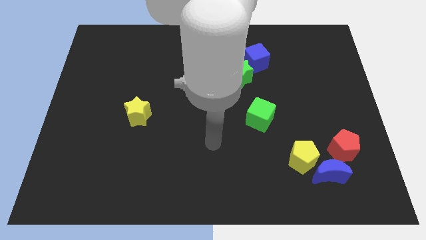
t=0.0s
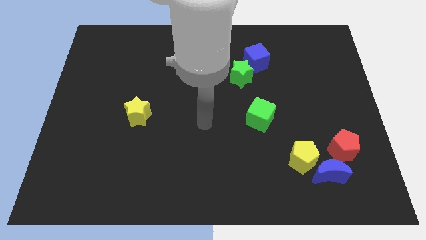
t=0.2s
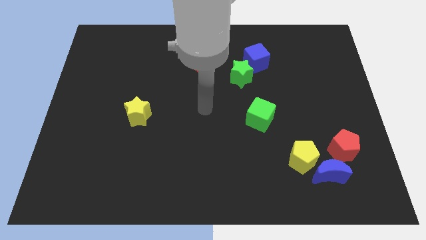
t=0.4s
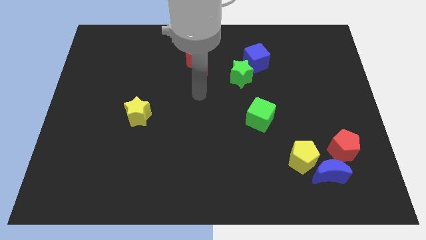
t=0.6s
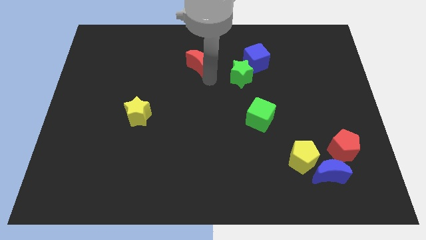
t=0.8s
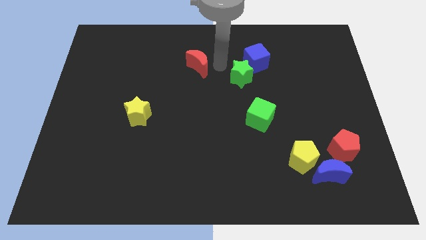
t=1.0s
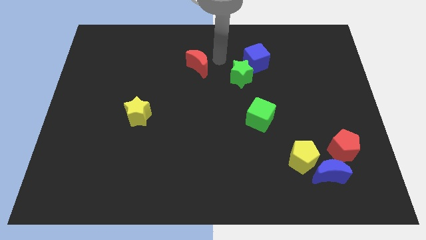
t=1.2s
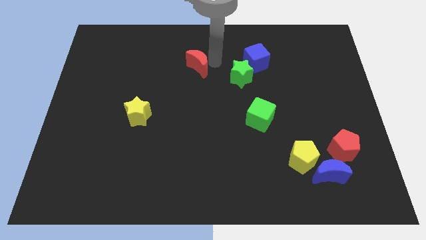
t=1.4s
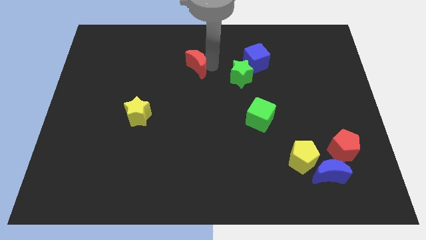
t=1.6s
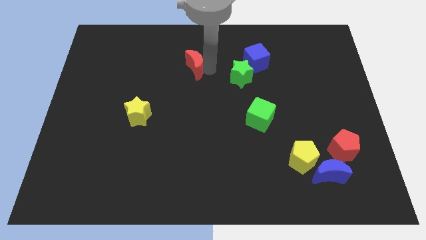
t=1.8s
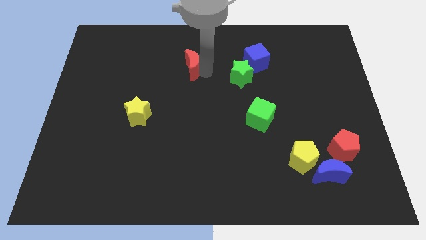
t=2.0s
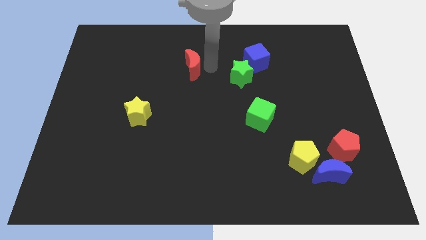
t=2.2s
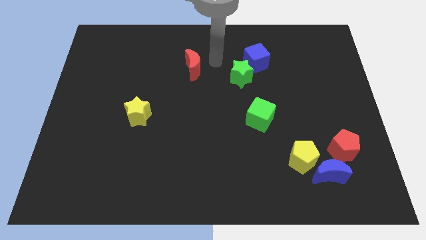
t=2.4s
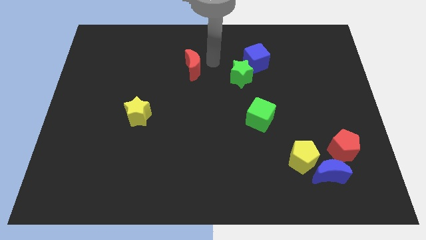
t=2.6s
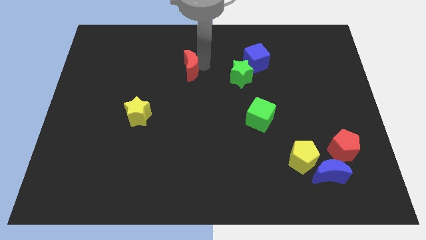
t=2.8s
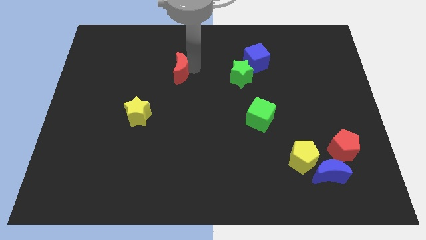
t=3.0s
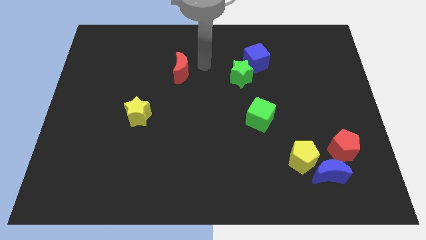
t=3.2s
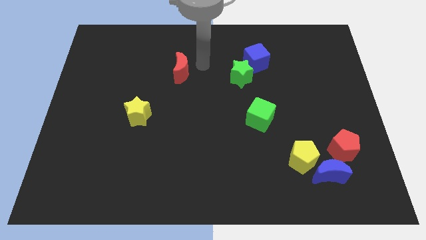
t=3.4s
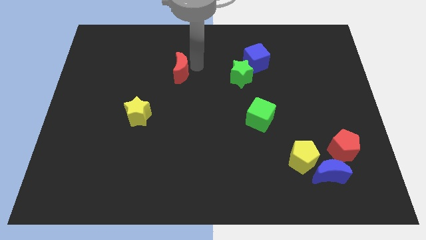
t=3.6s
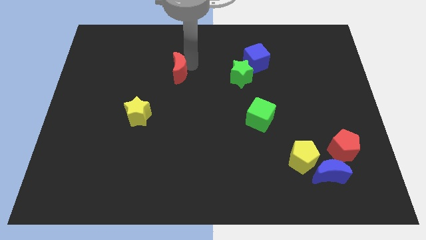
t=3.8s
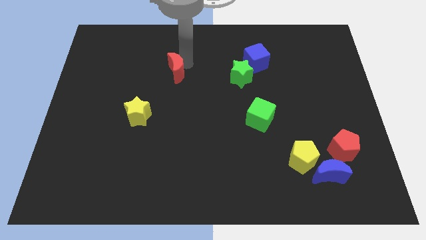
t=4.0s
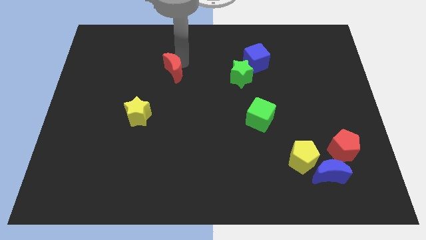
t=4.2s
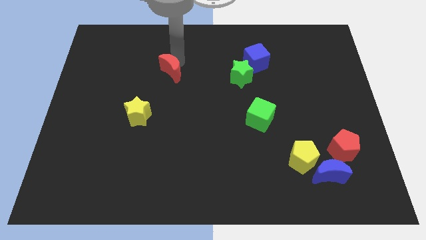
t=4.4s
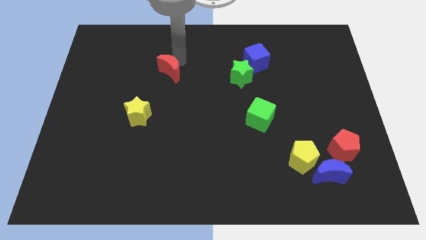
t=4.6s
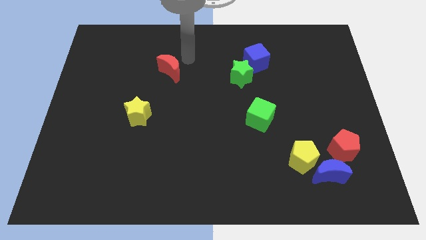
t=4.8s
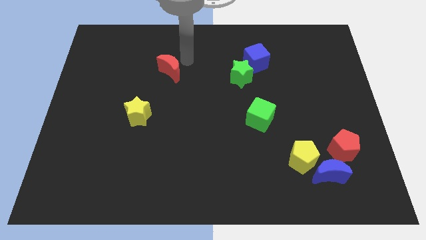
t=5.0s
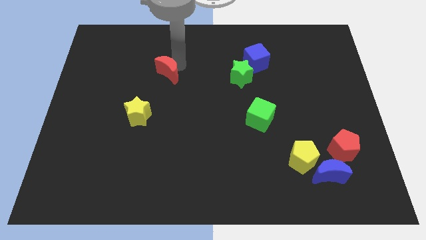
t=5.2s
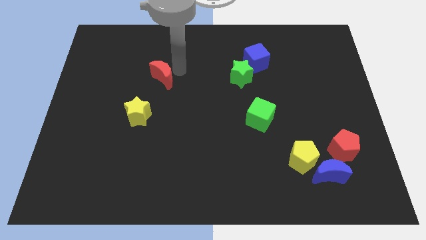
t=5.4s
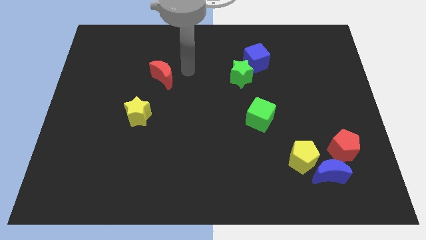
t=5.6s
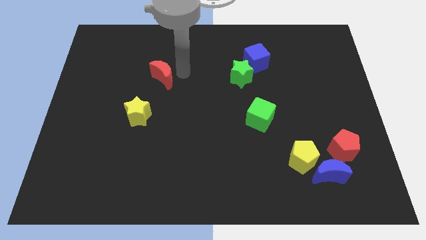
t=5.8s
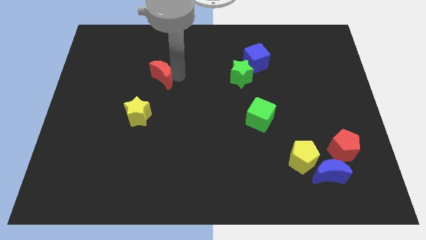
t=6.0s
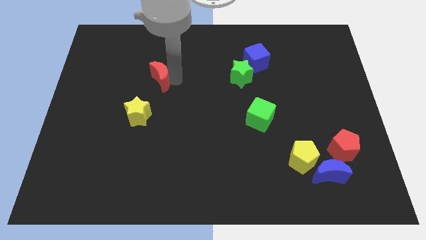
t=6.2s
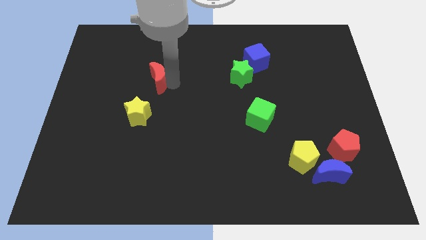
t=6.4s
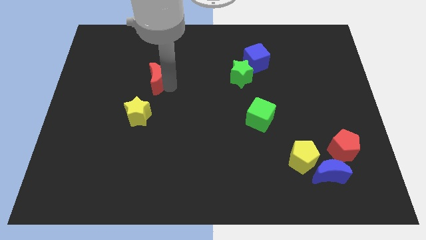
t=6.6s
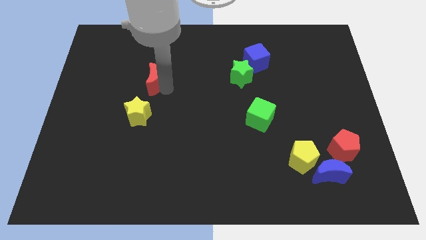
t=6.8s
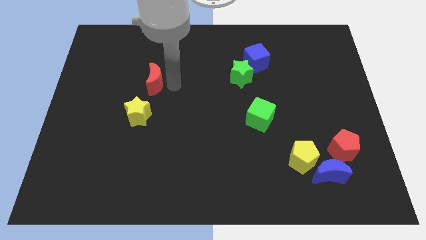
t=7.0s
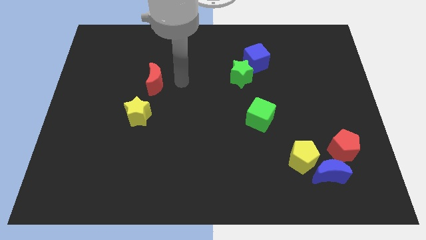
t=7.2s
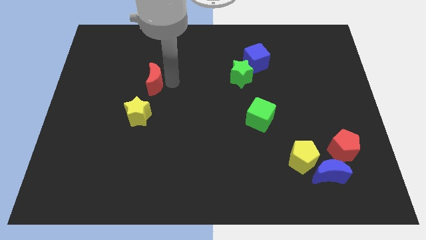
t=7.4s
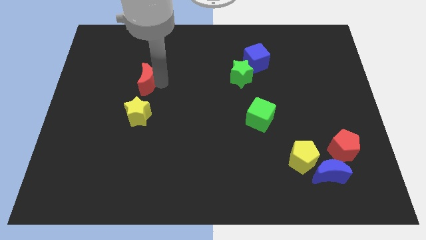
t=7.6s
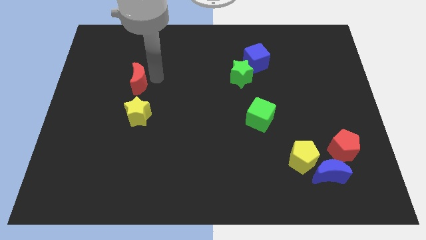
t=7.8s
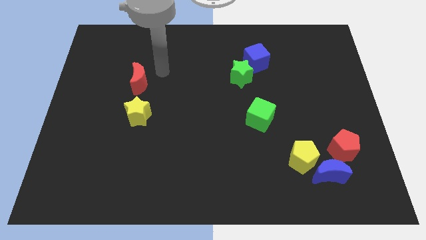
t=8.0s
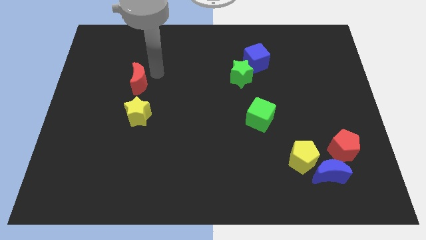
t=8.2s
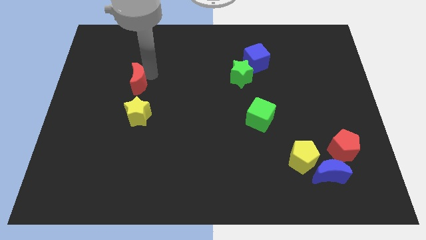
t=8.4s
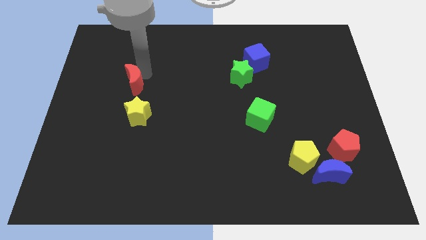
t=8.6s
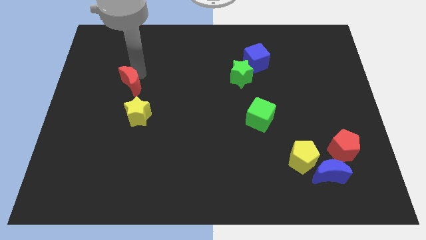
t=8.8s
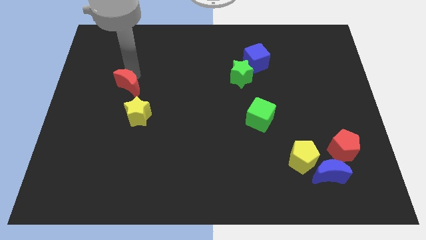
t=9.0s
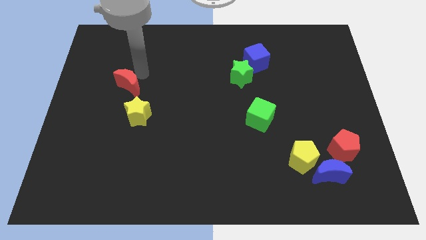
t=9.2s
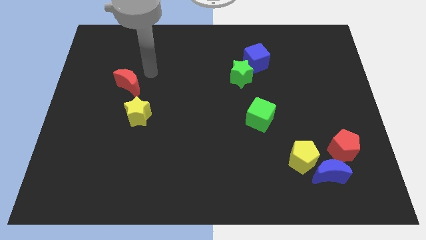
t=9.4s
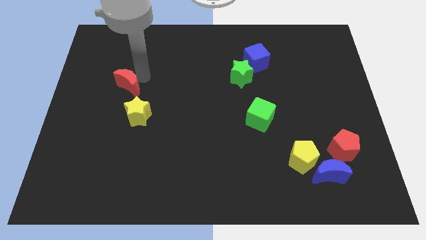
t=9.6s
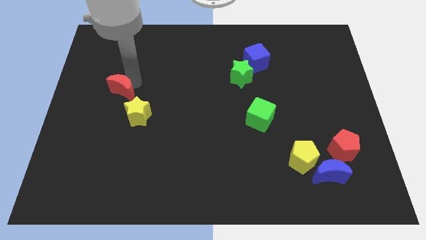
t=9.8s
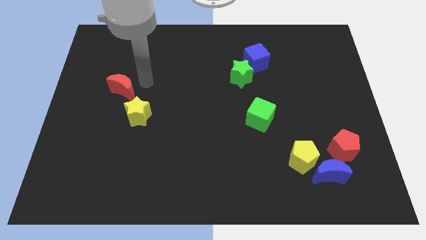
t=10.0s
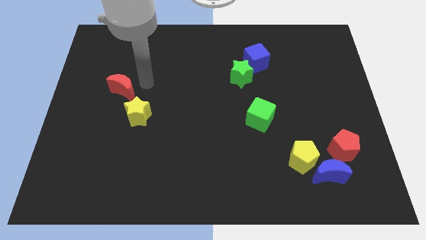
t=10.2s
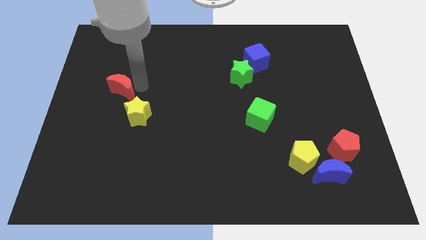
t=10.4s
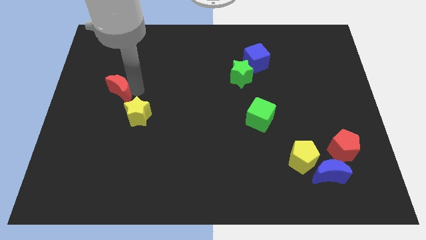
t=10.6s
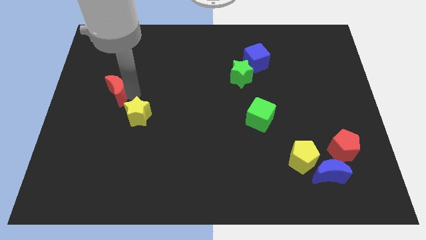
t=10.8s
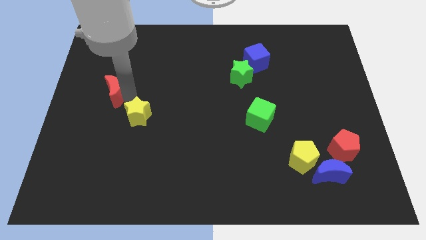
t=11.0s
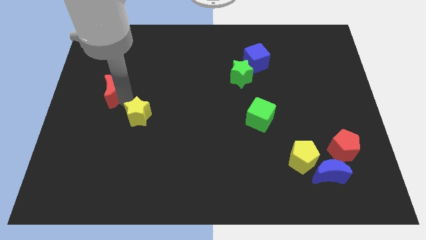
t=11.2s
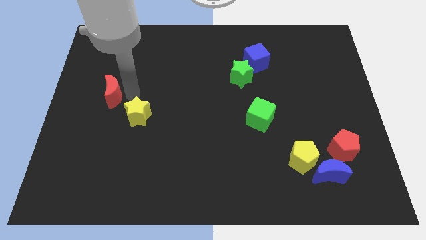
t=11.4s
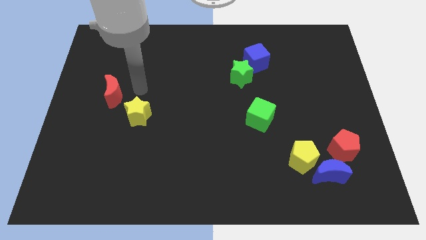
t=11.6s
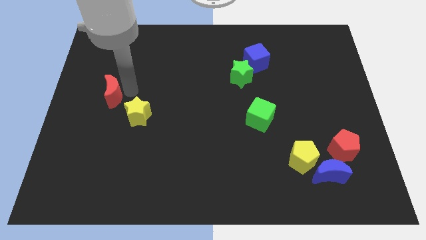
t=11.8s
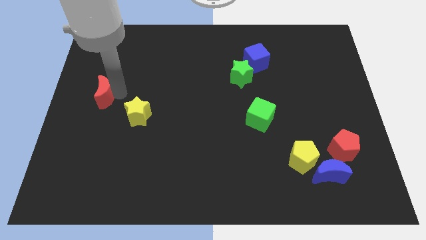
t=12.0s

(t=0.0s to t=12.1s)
put the red moon to the left side
